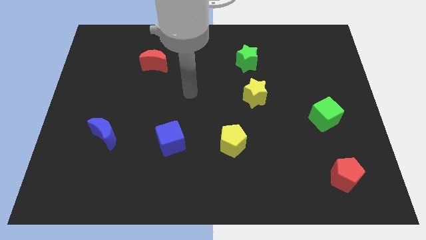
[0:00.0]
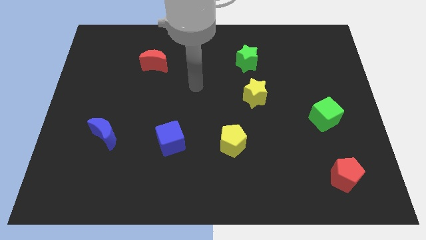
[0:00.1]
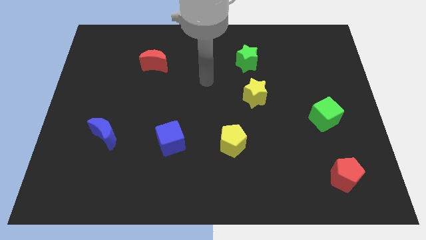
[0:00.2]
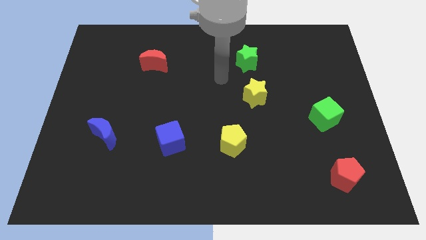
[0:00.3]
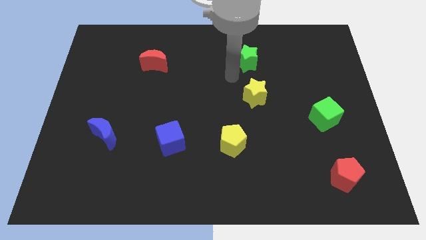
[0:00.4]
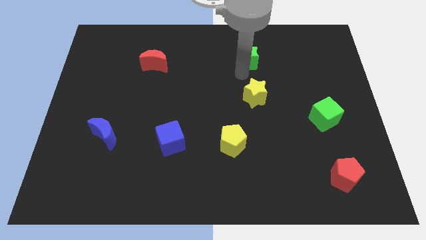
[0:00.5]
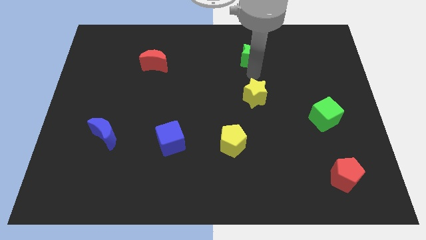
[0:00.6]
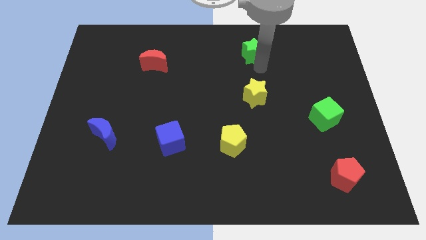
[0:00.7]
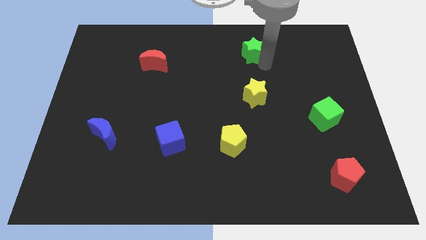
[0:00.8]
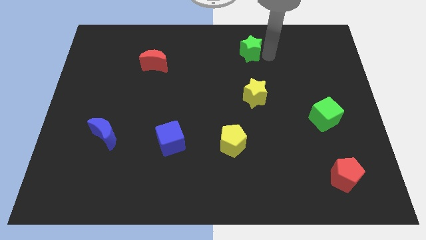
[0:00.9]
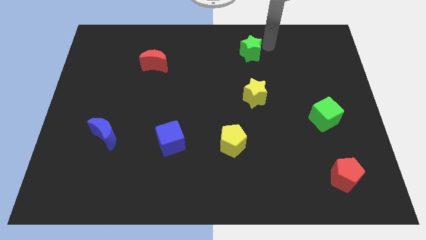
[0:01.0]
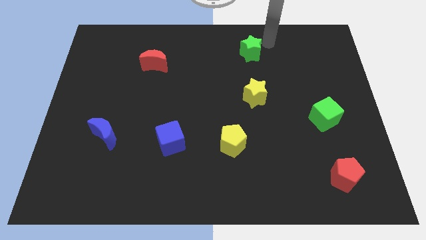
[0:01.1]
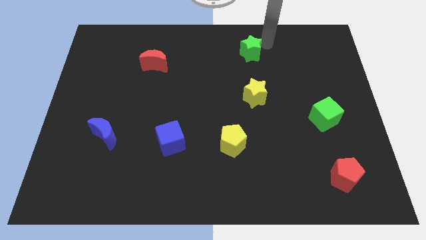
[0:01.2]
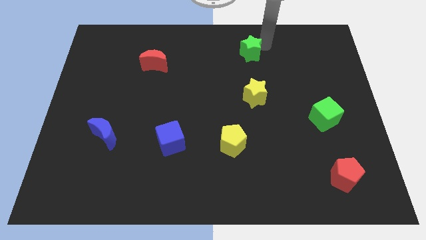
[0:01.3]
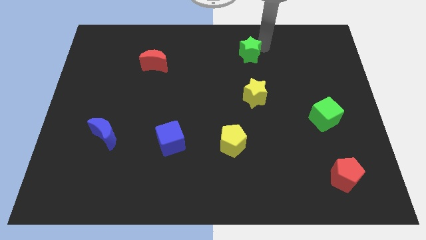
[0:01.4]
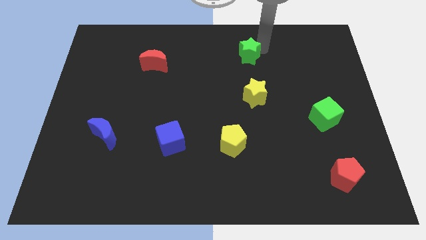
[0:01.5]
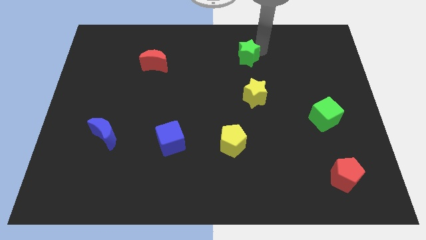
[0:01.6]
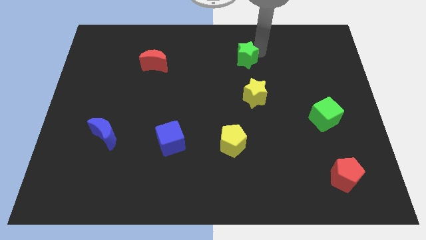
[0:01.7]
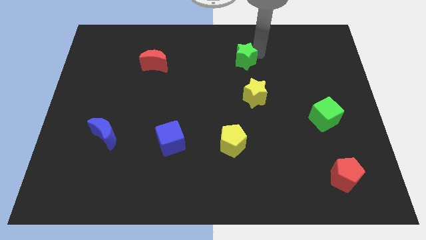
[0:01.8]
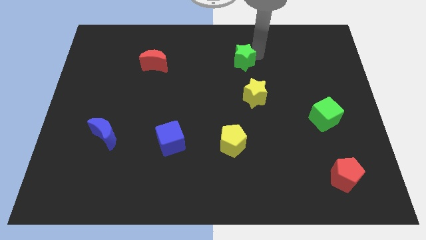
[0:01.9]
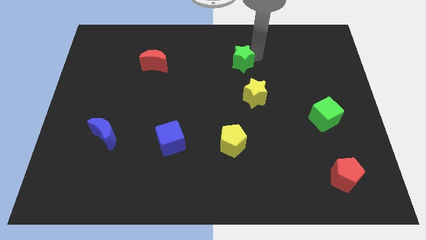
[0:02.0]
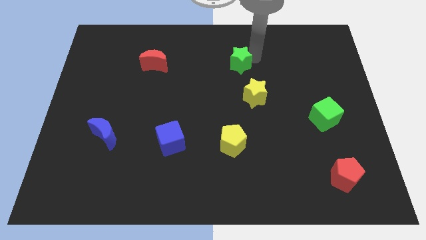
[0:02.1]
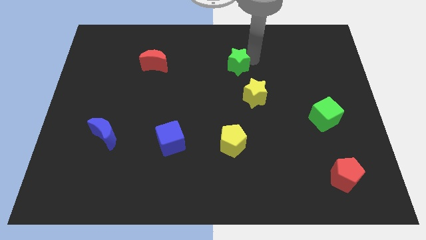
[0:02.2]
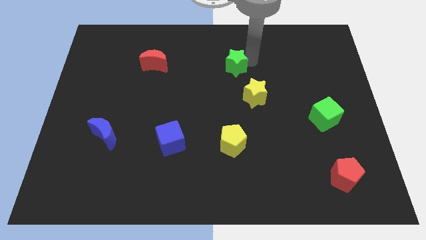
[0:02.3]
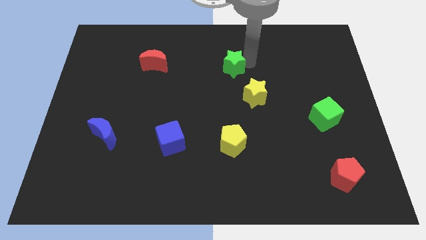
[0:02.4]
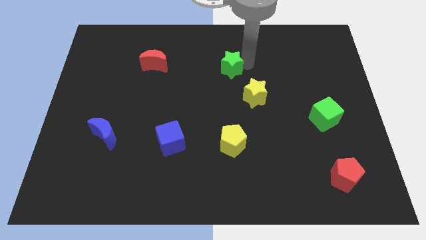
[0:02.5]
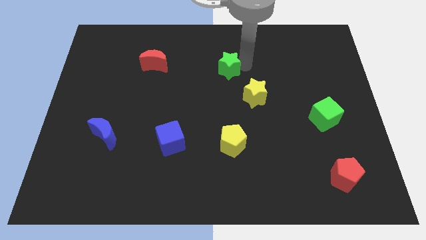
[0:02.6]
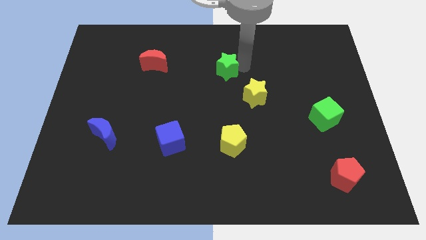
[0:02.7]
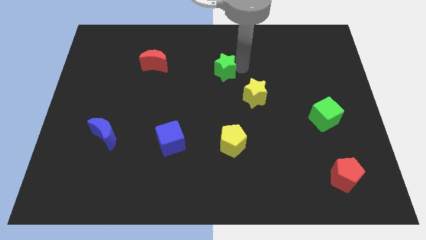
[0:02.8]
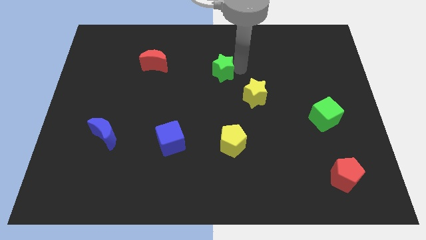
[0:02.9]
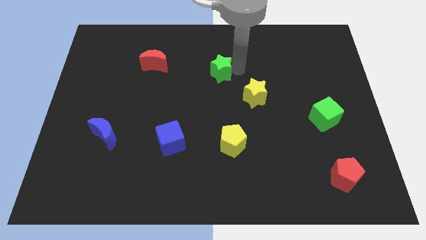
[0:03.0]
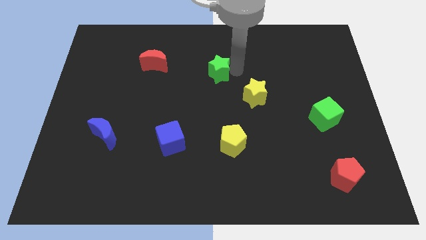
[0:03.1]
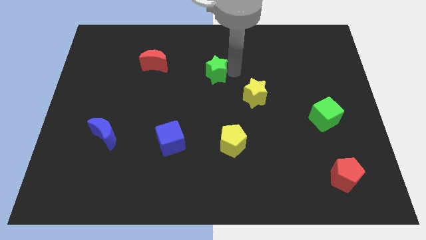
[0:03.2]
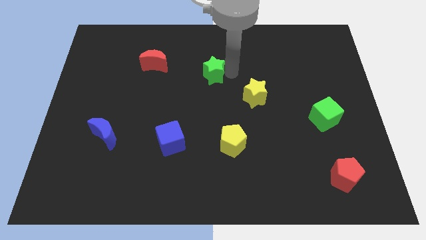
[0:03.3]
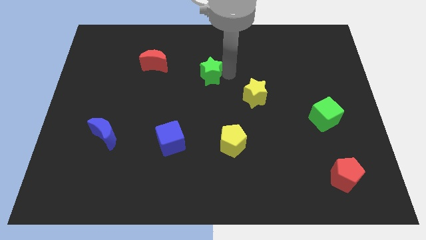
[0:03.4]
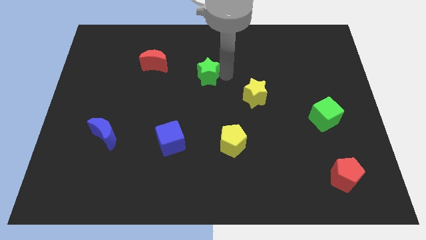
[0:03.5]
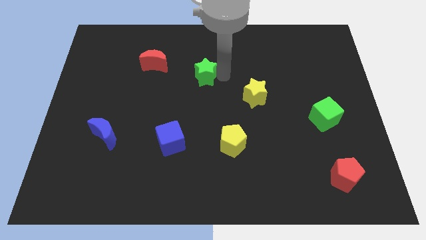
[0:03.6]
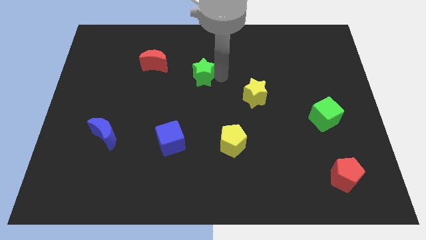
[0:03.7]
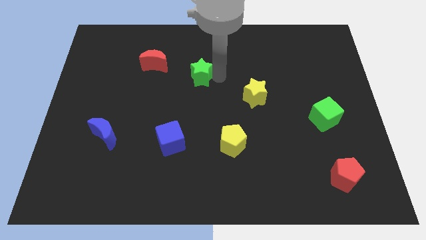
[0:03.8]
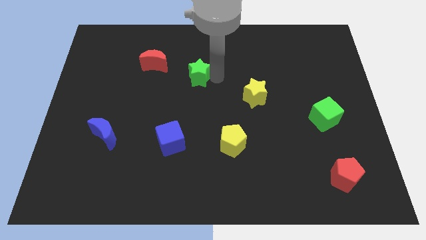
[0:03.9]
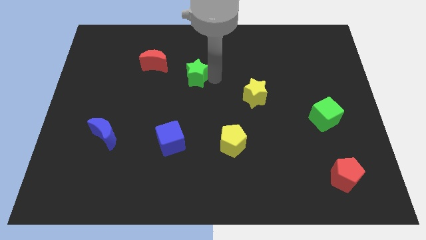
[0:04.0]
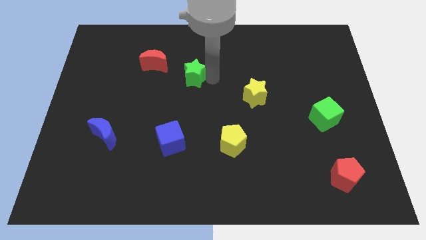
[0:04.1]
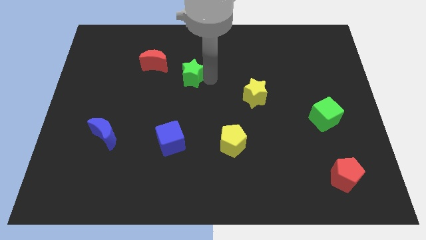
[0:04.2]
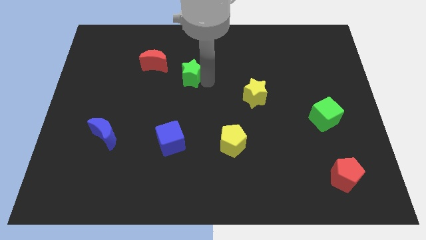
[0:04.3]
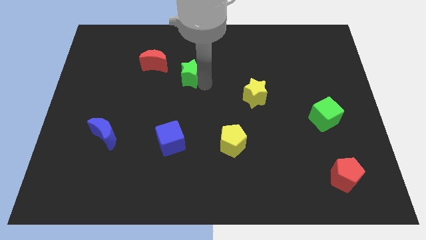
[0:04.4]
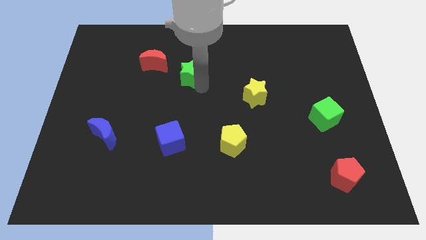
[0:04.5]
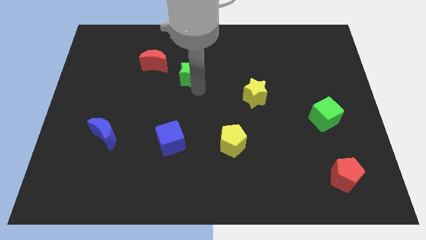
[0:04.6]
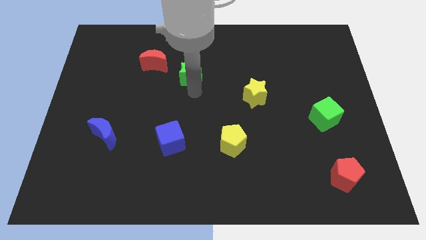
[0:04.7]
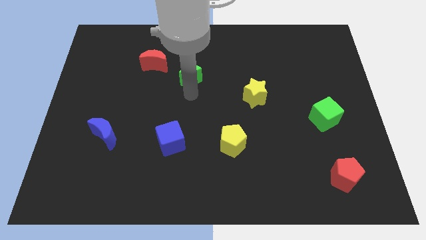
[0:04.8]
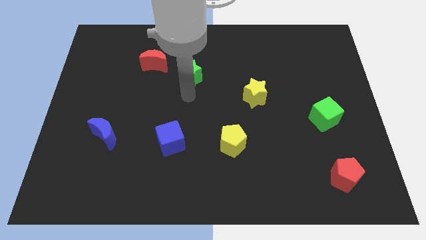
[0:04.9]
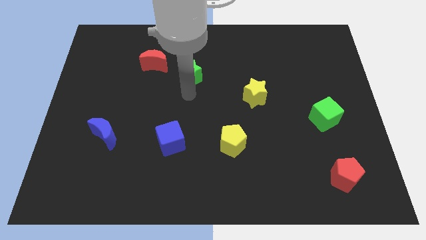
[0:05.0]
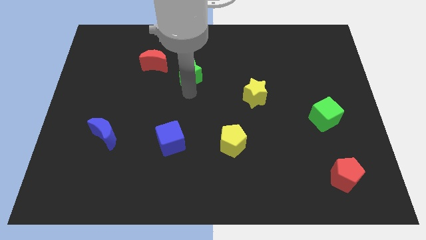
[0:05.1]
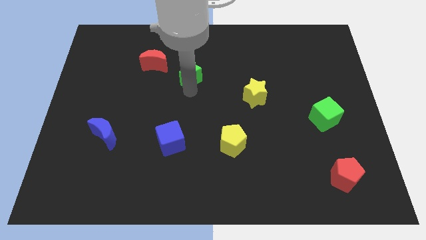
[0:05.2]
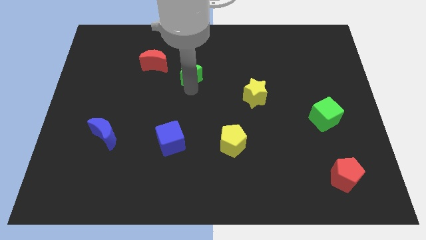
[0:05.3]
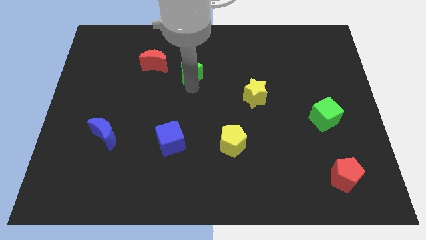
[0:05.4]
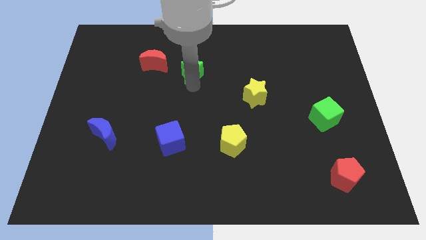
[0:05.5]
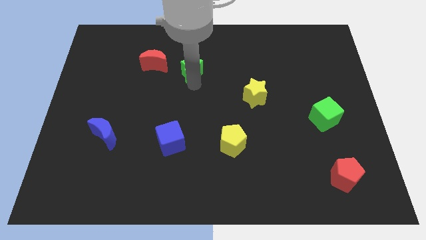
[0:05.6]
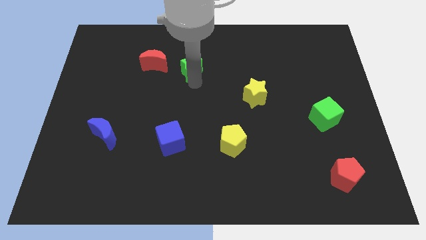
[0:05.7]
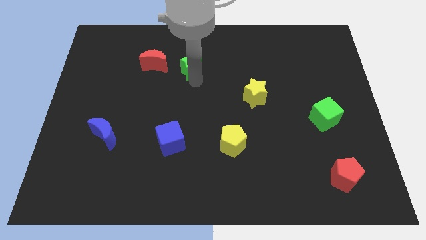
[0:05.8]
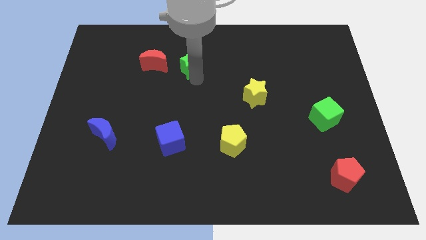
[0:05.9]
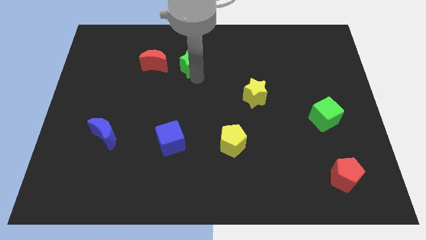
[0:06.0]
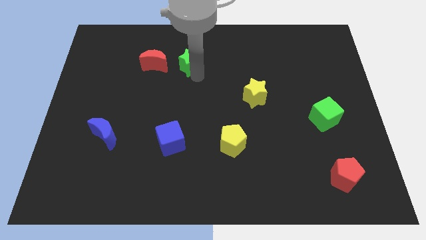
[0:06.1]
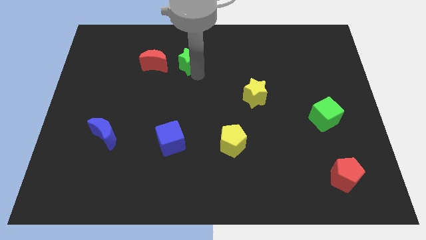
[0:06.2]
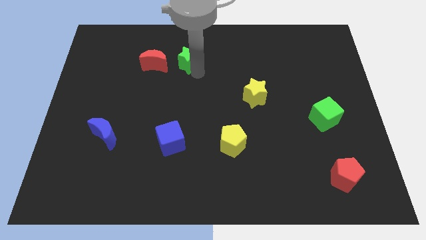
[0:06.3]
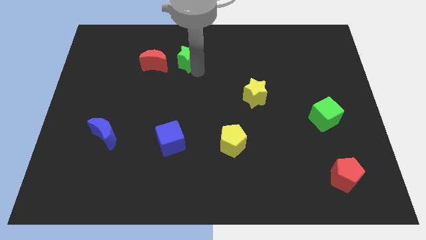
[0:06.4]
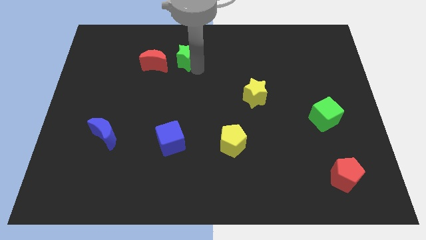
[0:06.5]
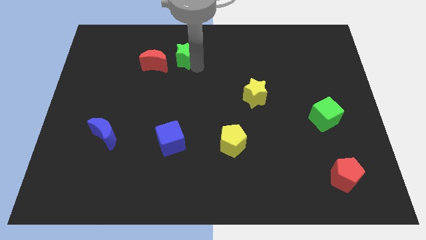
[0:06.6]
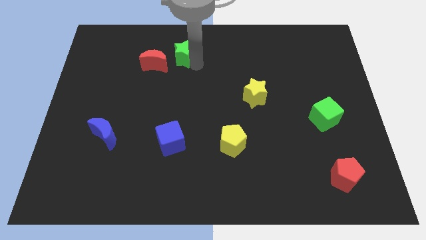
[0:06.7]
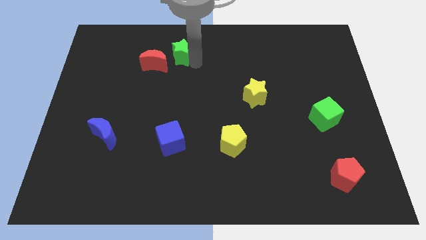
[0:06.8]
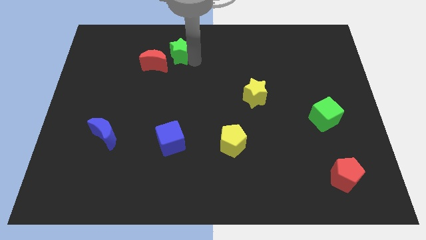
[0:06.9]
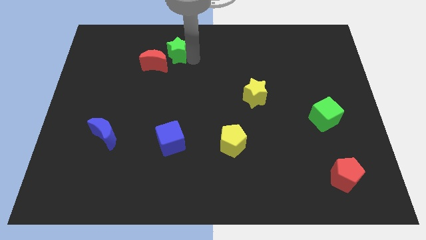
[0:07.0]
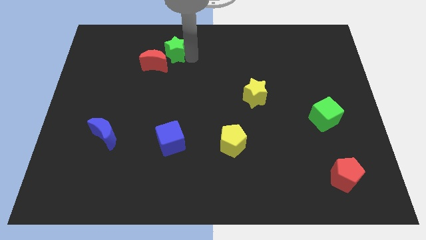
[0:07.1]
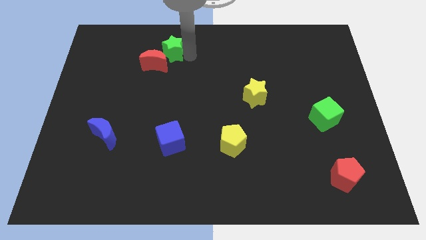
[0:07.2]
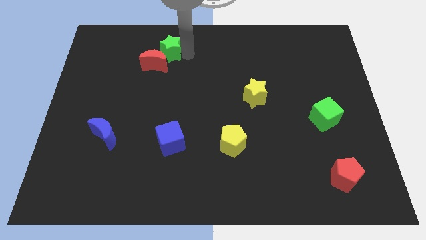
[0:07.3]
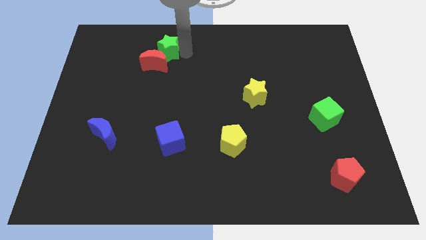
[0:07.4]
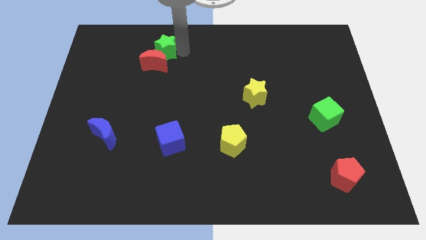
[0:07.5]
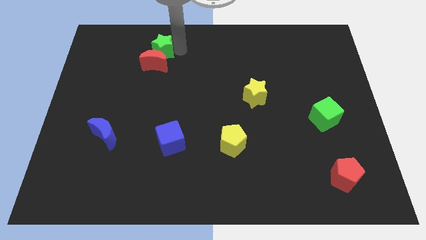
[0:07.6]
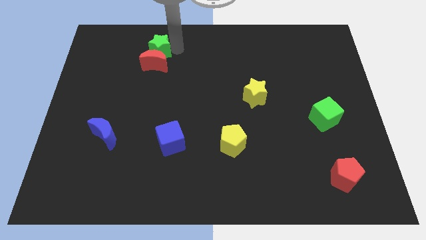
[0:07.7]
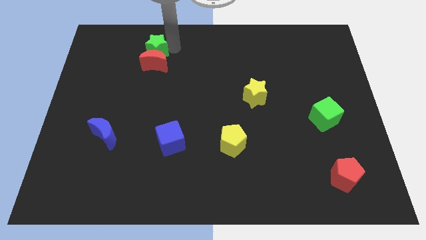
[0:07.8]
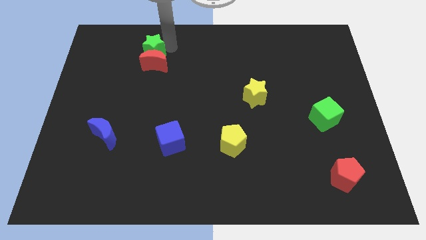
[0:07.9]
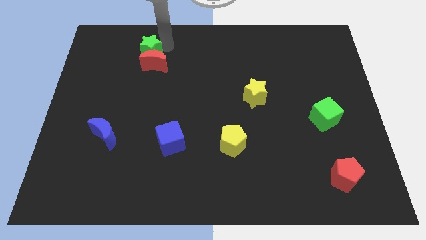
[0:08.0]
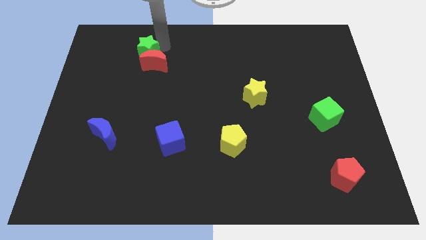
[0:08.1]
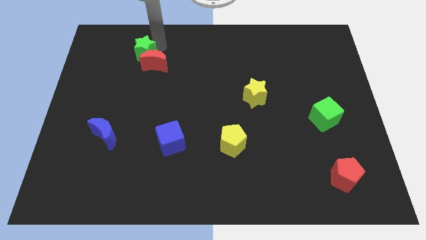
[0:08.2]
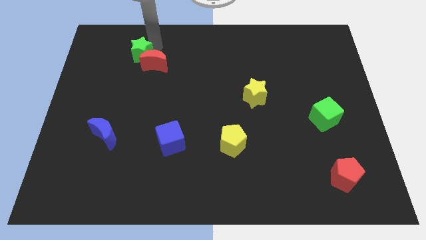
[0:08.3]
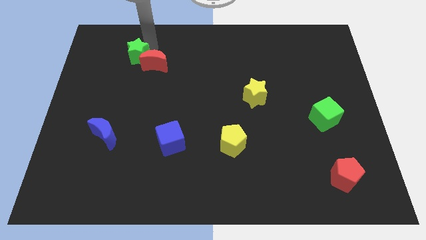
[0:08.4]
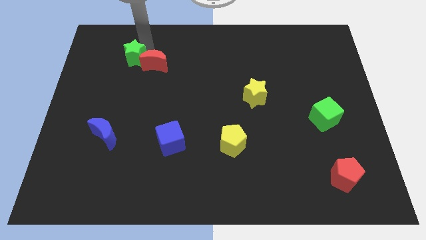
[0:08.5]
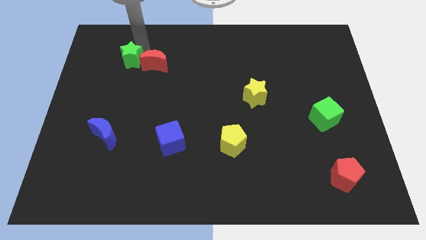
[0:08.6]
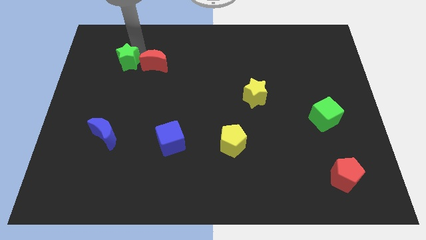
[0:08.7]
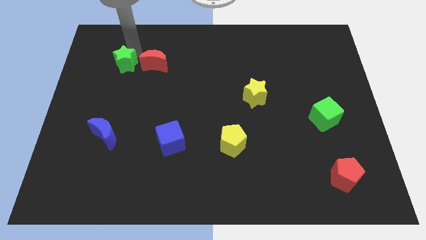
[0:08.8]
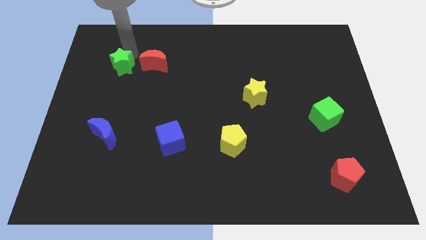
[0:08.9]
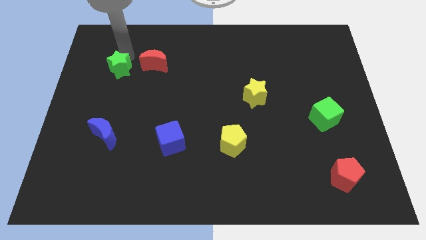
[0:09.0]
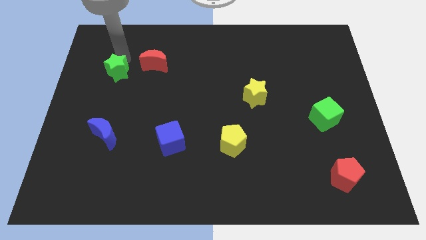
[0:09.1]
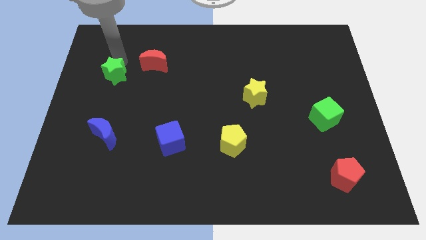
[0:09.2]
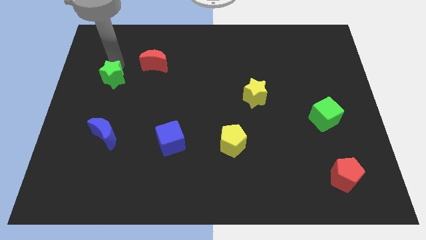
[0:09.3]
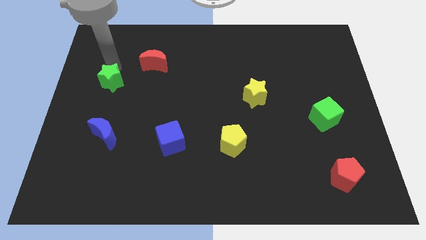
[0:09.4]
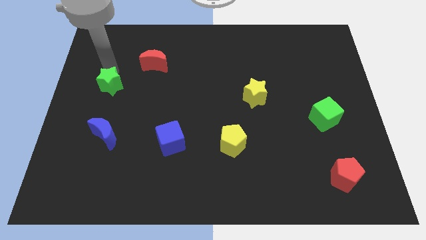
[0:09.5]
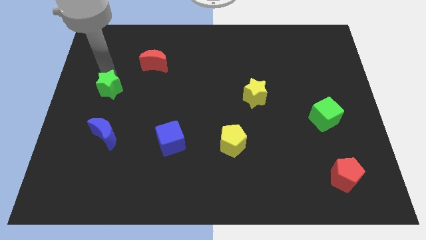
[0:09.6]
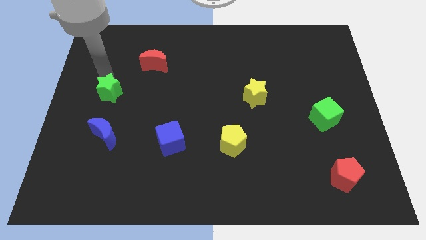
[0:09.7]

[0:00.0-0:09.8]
move the green star to the center left
